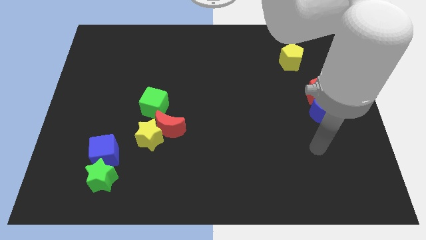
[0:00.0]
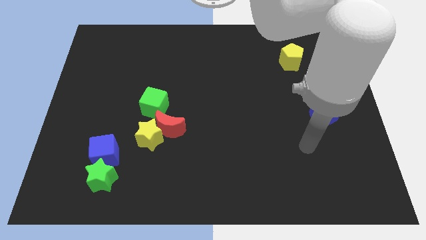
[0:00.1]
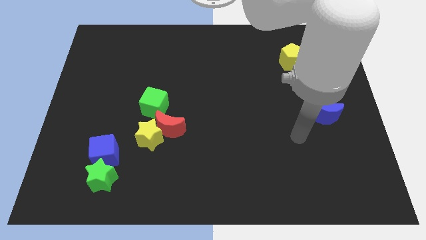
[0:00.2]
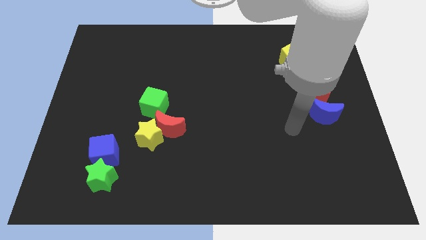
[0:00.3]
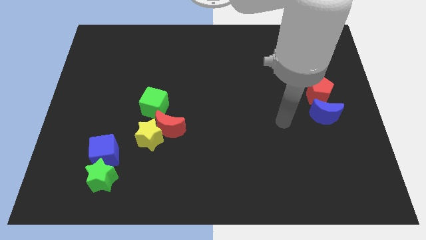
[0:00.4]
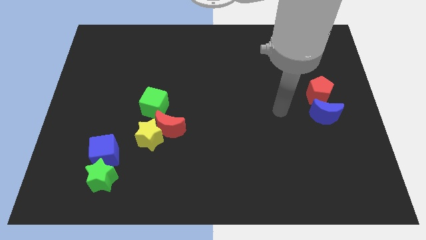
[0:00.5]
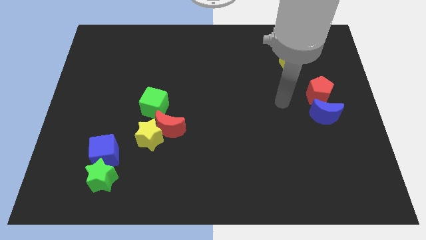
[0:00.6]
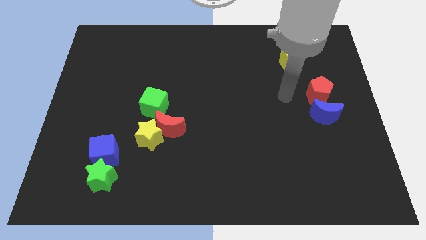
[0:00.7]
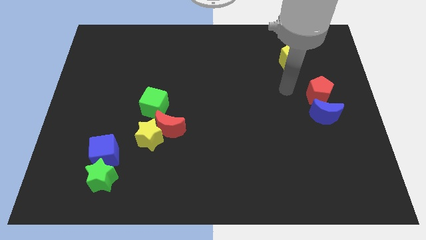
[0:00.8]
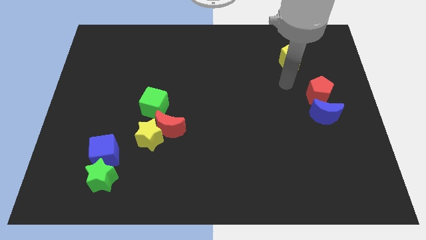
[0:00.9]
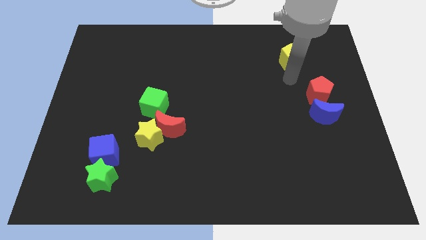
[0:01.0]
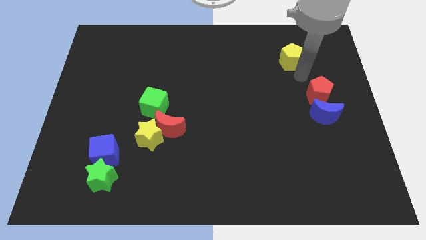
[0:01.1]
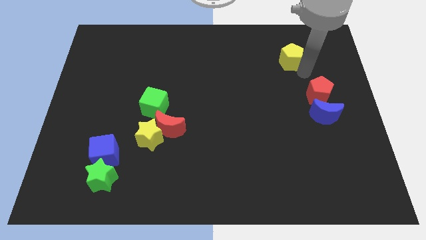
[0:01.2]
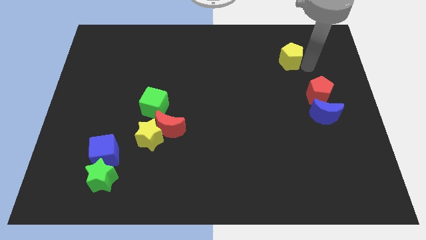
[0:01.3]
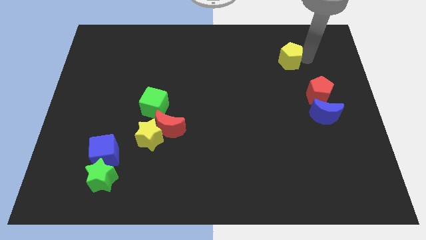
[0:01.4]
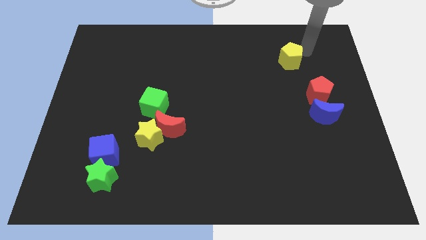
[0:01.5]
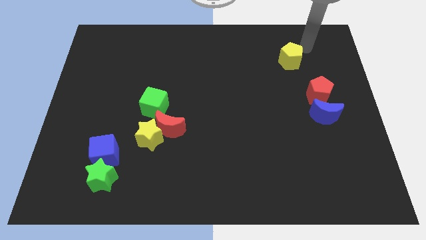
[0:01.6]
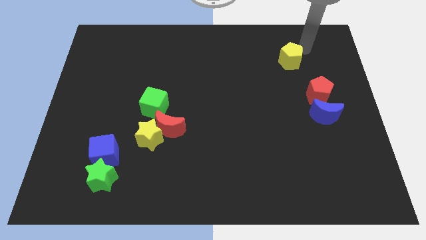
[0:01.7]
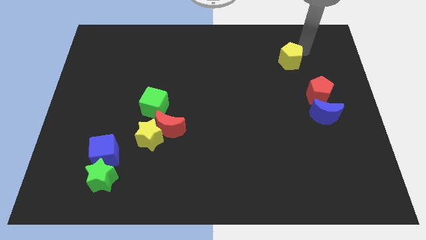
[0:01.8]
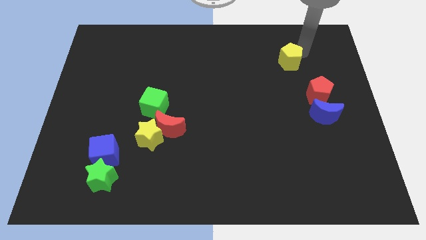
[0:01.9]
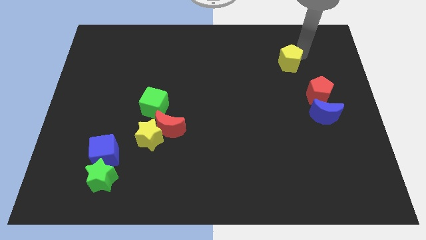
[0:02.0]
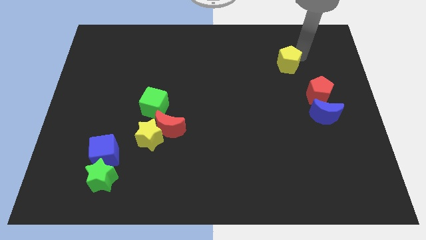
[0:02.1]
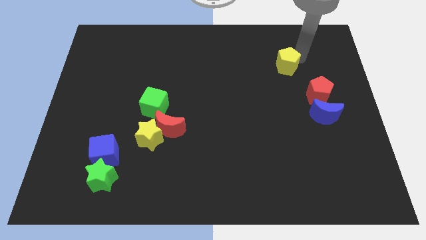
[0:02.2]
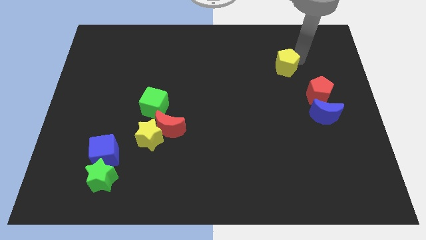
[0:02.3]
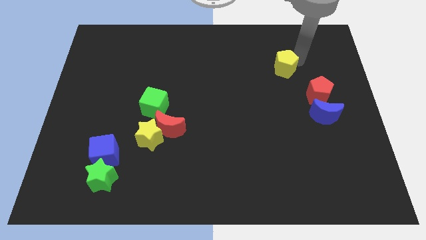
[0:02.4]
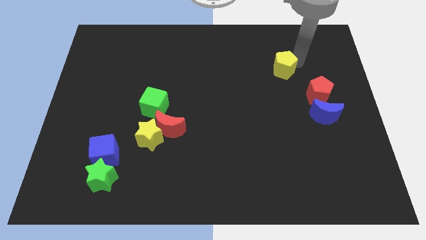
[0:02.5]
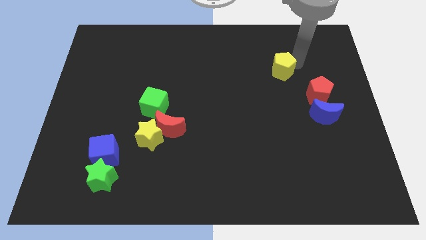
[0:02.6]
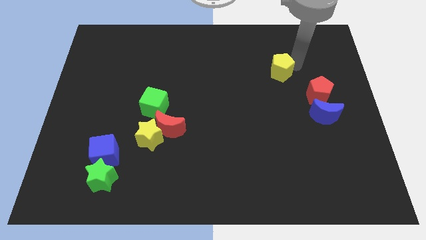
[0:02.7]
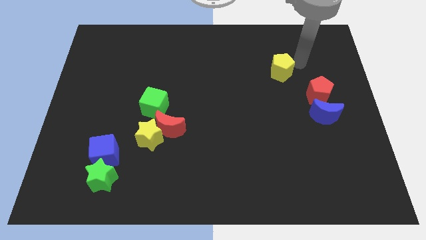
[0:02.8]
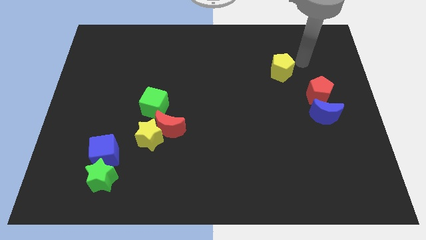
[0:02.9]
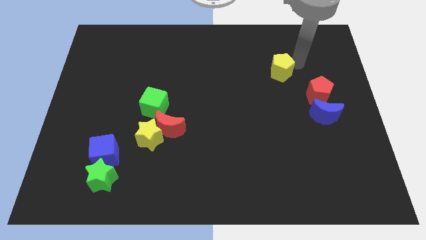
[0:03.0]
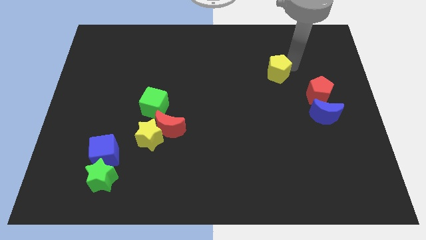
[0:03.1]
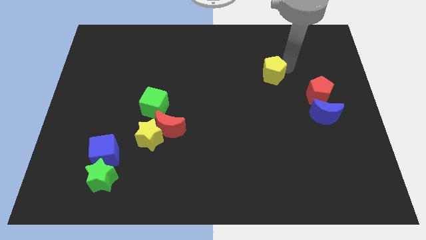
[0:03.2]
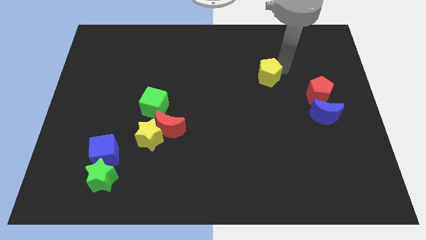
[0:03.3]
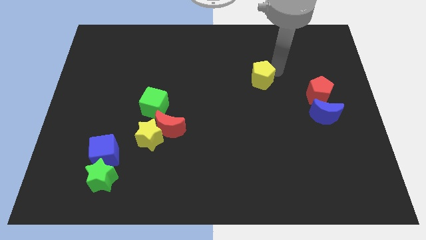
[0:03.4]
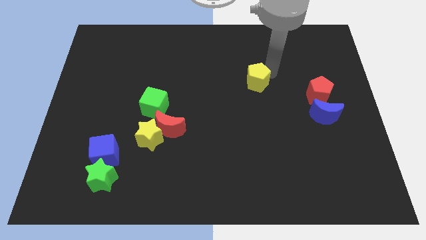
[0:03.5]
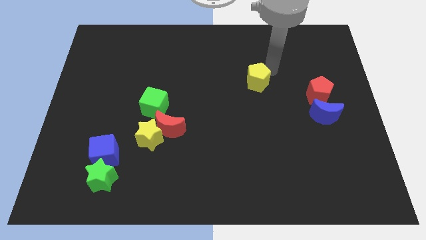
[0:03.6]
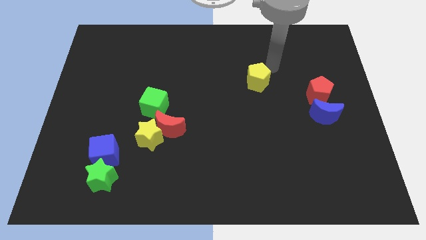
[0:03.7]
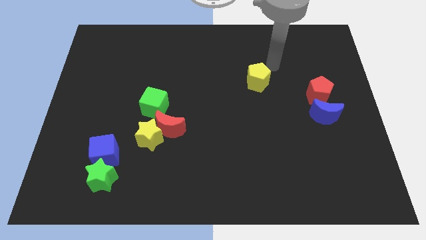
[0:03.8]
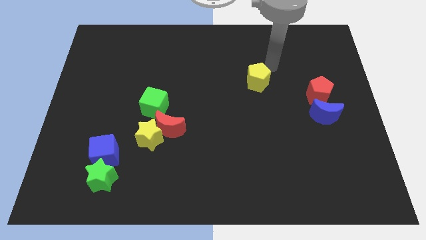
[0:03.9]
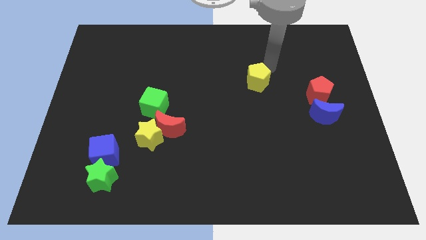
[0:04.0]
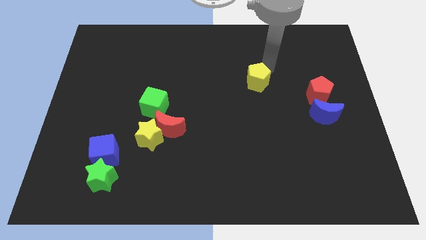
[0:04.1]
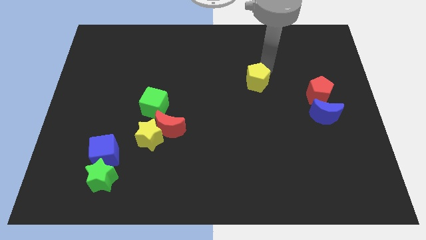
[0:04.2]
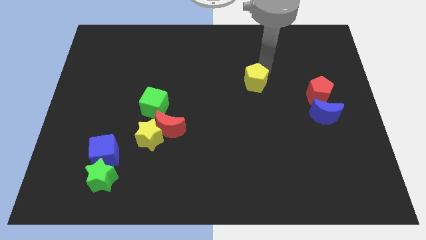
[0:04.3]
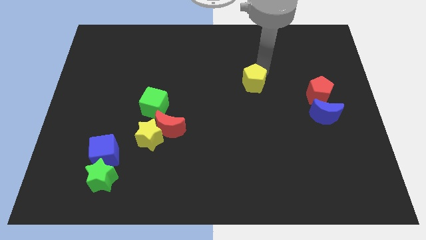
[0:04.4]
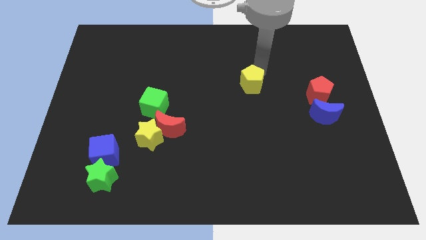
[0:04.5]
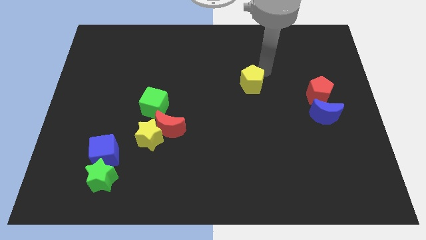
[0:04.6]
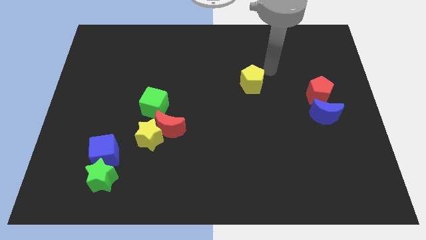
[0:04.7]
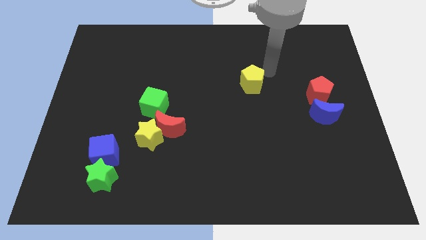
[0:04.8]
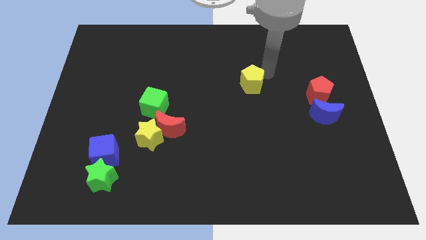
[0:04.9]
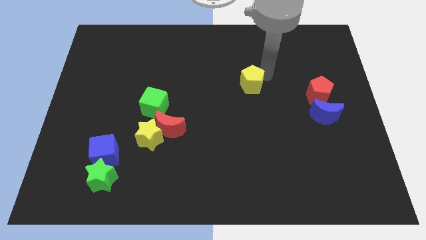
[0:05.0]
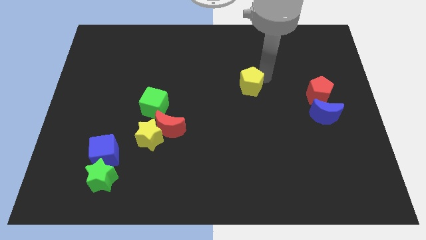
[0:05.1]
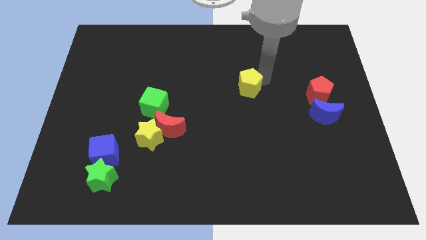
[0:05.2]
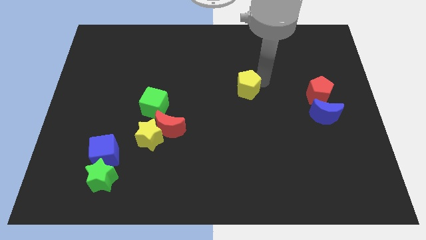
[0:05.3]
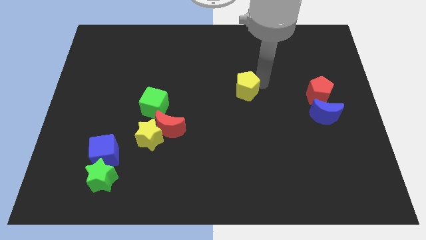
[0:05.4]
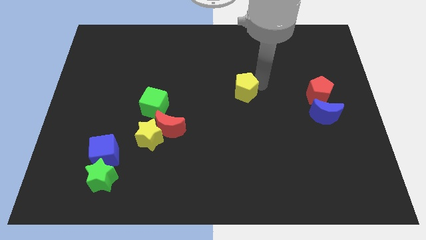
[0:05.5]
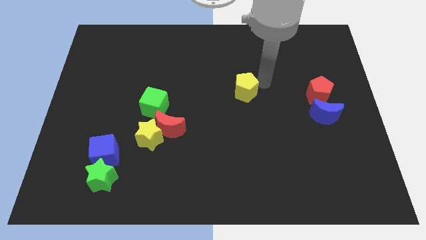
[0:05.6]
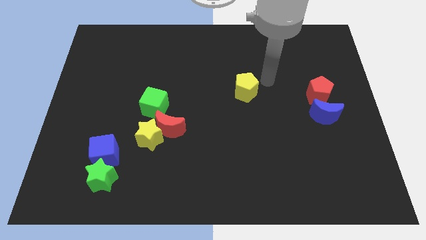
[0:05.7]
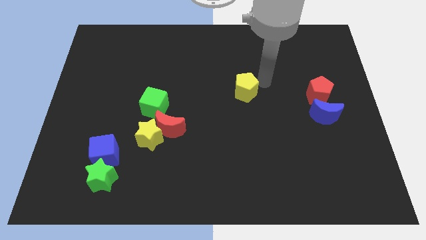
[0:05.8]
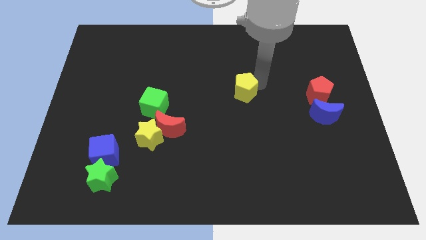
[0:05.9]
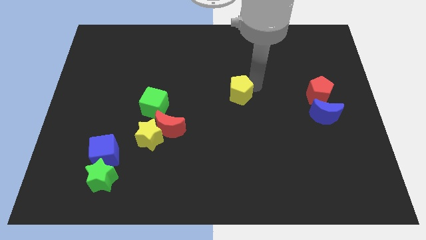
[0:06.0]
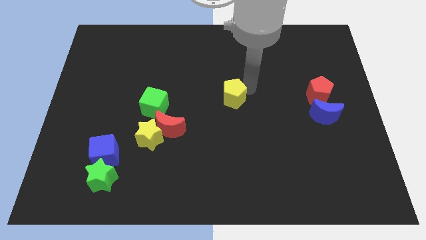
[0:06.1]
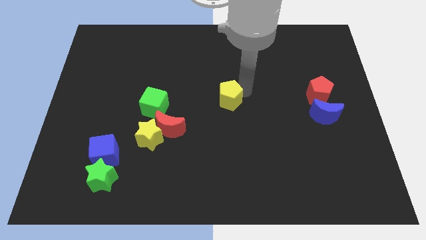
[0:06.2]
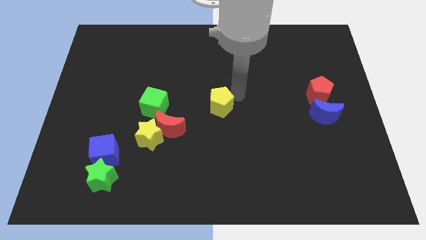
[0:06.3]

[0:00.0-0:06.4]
push the yellow pentagon to the right of the green cube

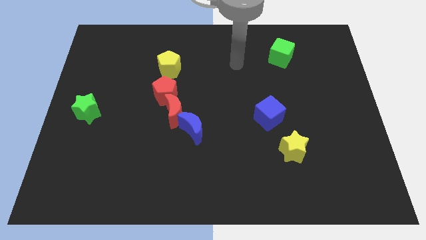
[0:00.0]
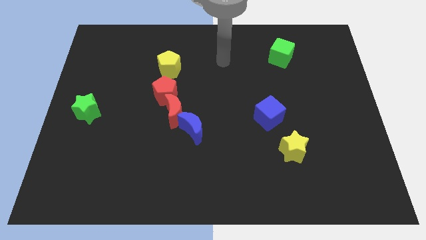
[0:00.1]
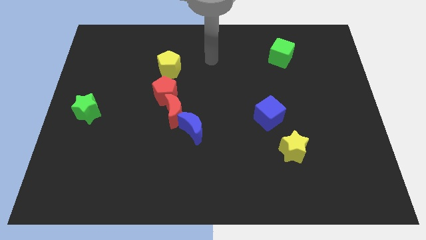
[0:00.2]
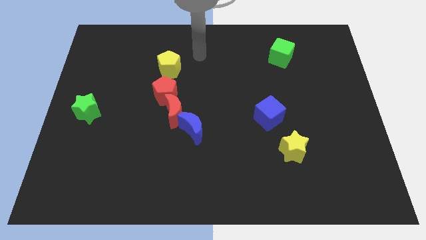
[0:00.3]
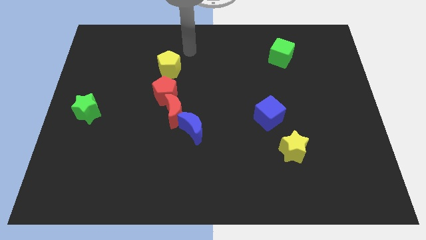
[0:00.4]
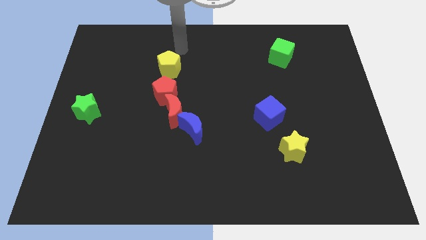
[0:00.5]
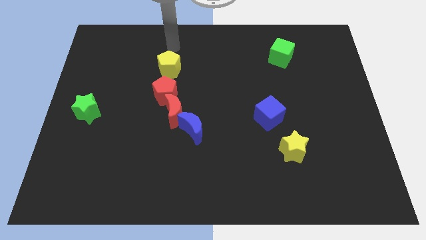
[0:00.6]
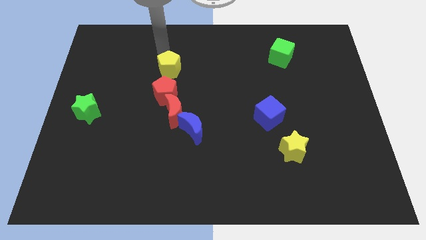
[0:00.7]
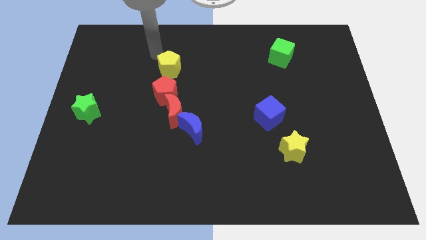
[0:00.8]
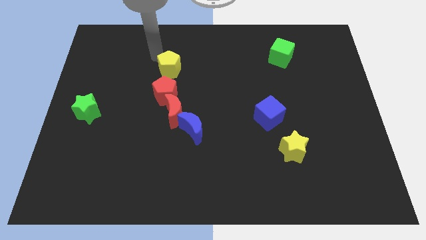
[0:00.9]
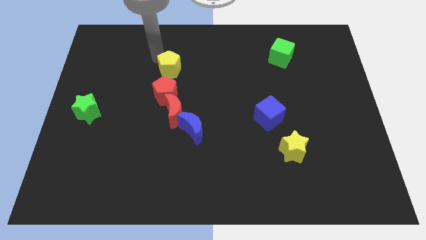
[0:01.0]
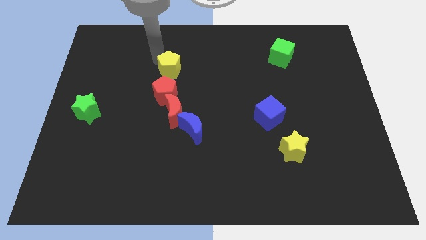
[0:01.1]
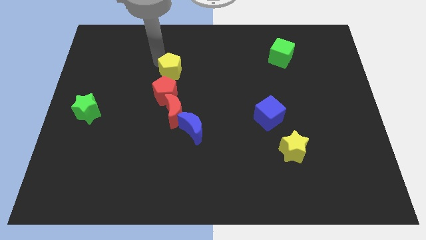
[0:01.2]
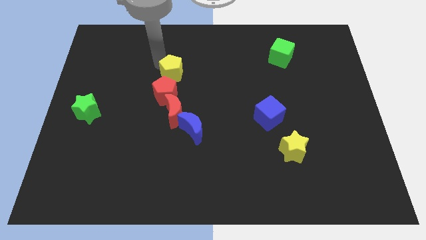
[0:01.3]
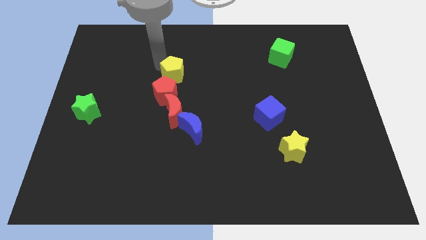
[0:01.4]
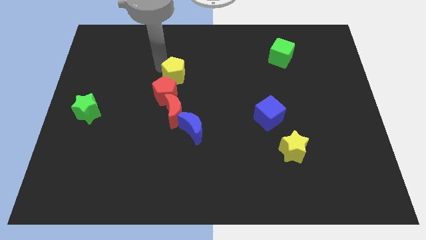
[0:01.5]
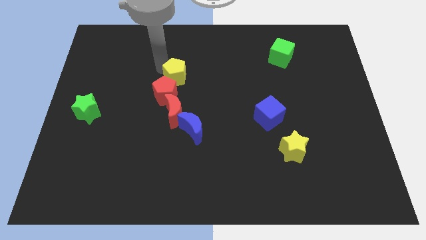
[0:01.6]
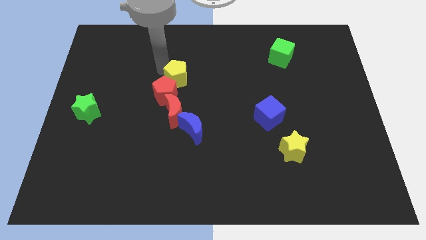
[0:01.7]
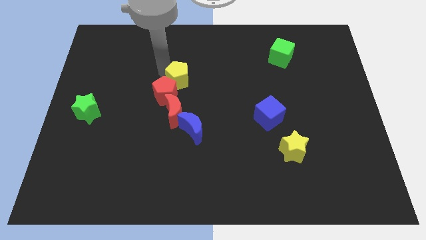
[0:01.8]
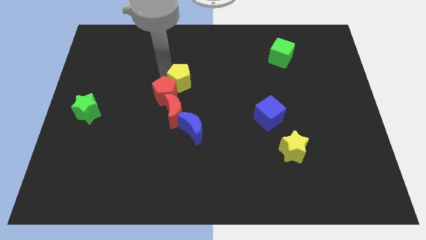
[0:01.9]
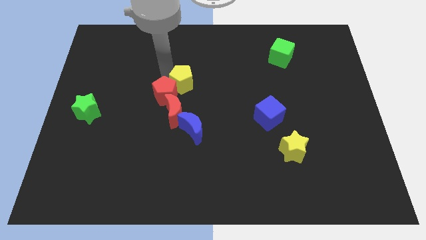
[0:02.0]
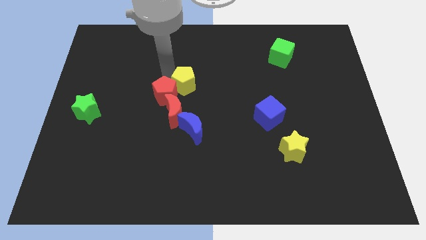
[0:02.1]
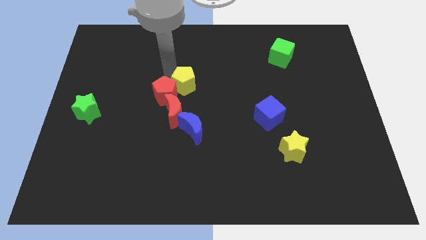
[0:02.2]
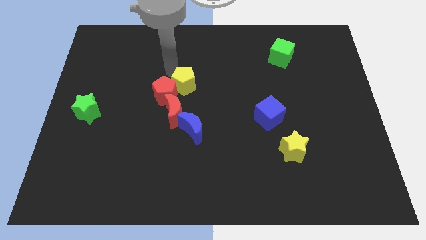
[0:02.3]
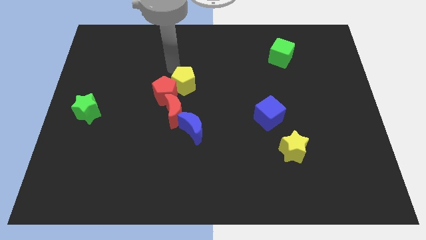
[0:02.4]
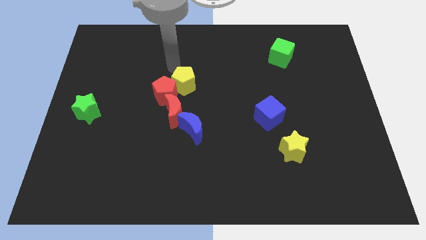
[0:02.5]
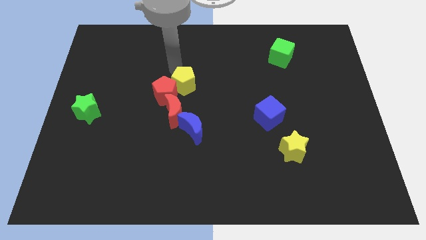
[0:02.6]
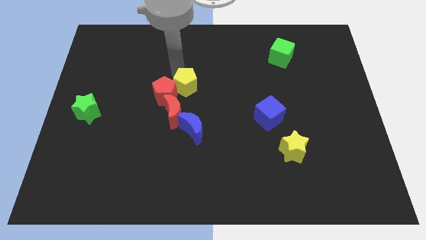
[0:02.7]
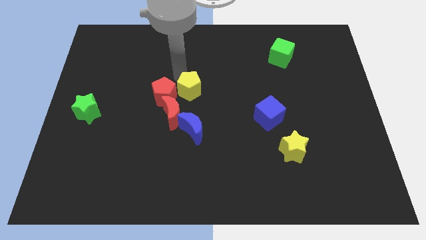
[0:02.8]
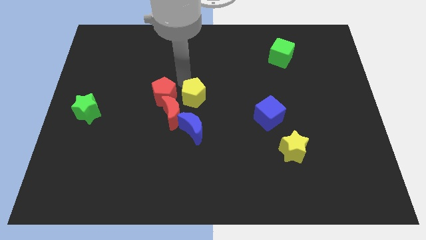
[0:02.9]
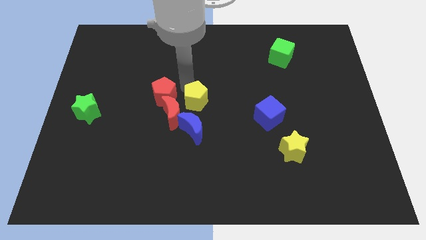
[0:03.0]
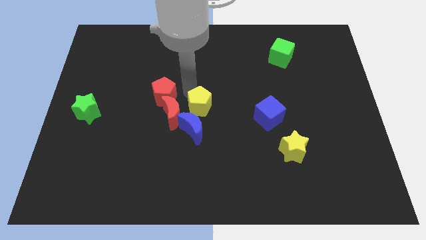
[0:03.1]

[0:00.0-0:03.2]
slide the yellow pentagon diagonally up and to the right of the blue moon
